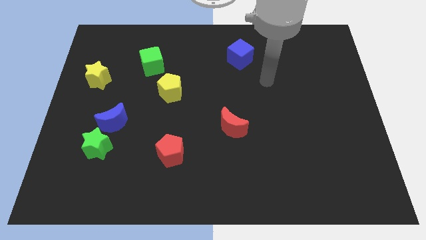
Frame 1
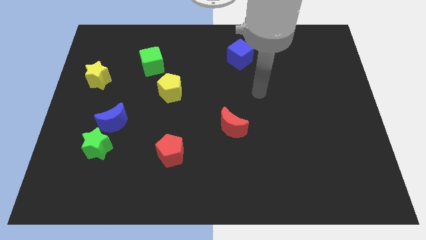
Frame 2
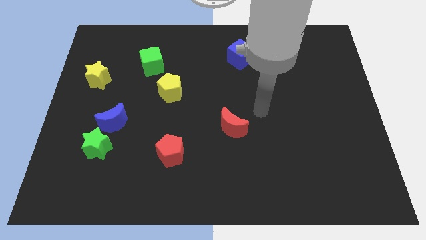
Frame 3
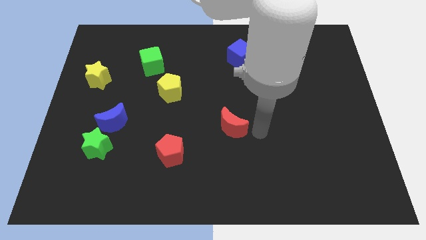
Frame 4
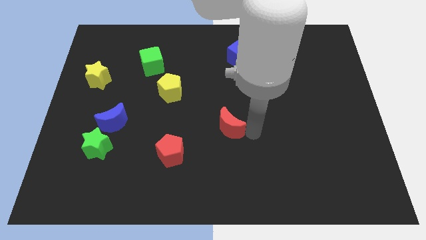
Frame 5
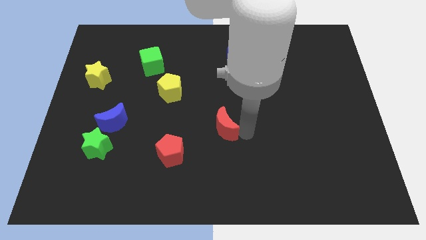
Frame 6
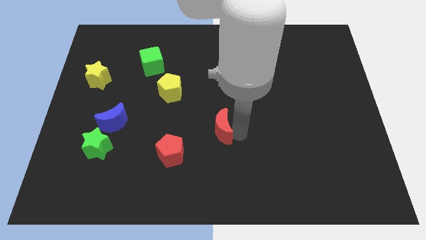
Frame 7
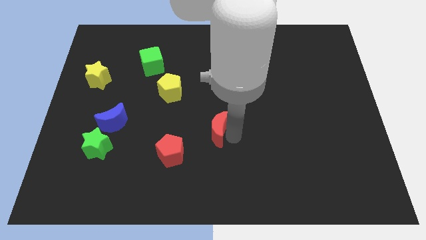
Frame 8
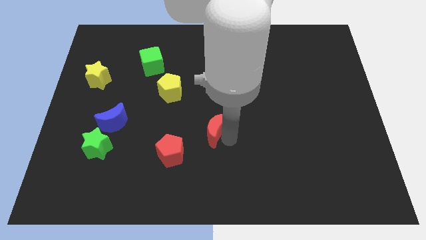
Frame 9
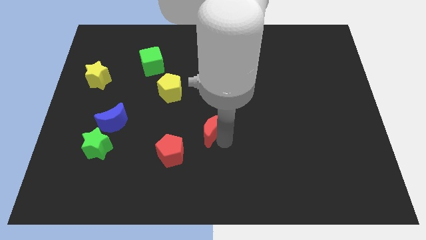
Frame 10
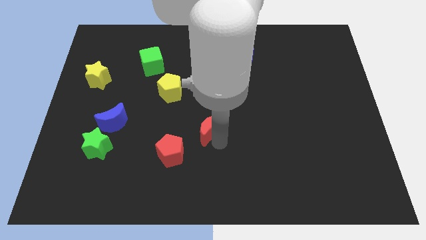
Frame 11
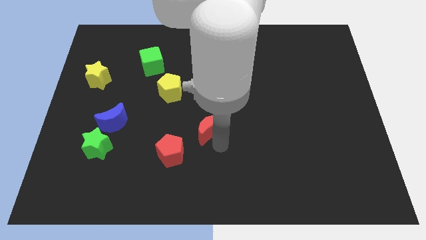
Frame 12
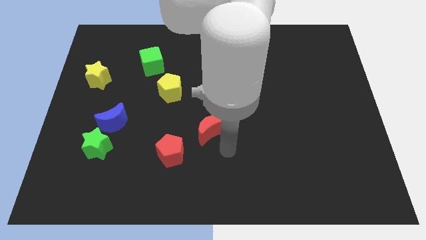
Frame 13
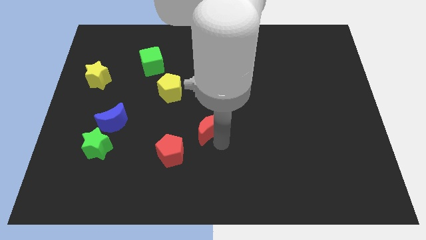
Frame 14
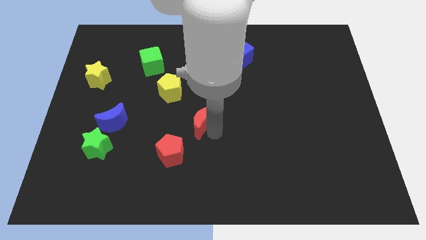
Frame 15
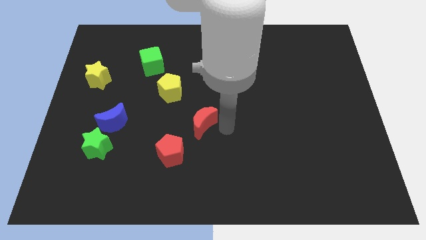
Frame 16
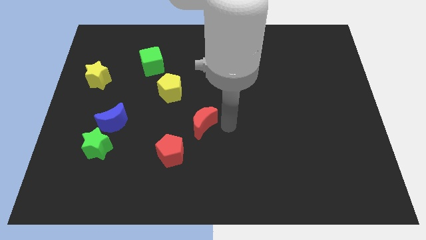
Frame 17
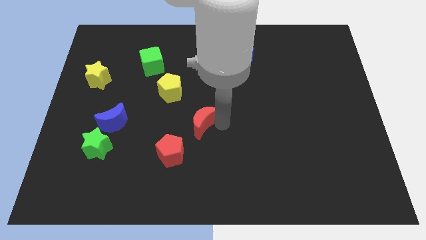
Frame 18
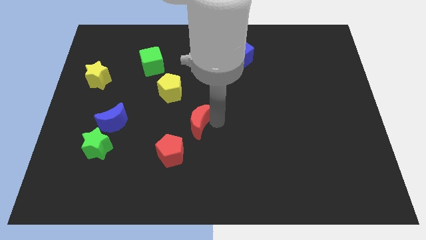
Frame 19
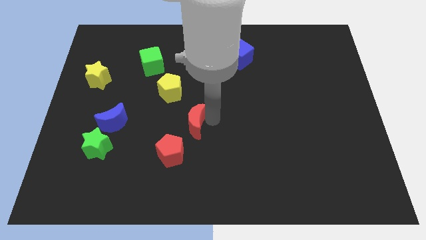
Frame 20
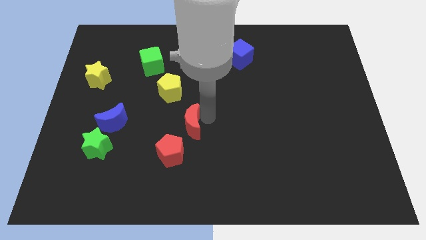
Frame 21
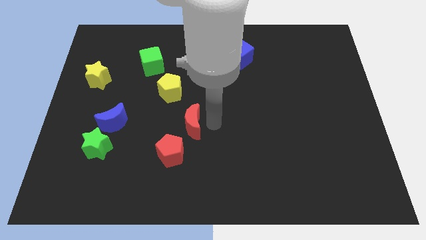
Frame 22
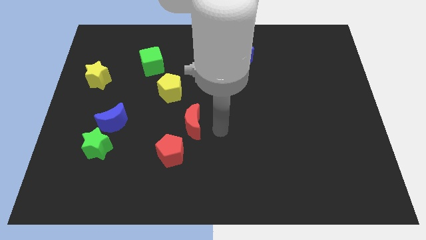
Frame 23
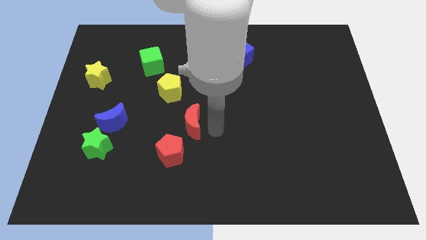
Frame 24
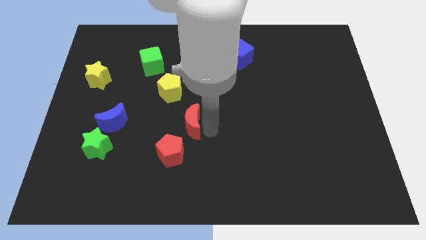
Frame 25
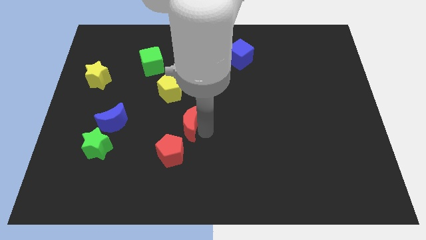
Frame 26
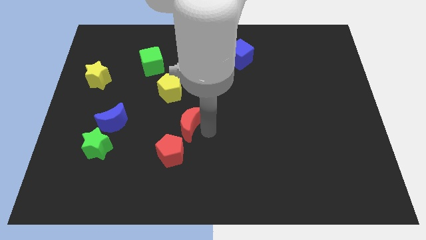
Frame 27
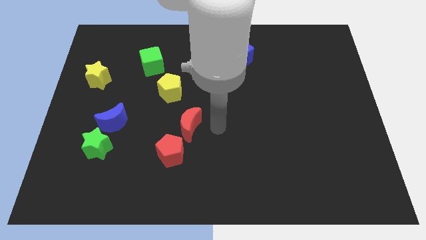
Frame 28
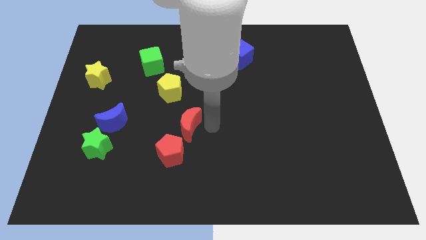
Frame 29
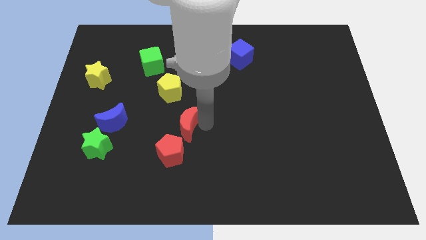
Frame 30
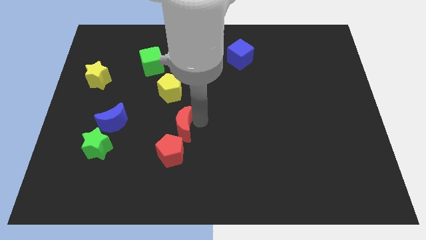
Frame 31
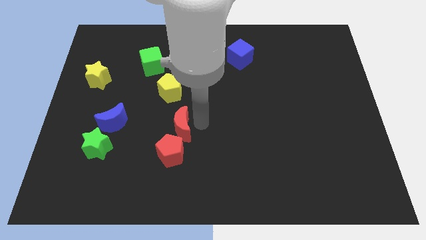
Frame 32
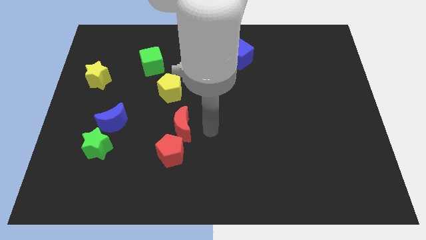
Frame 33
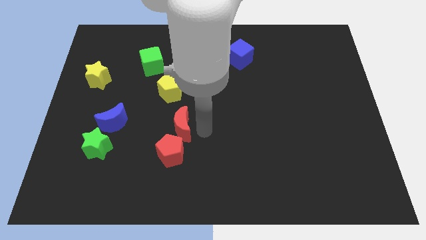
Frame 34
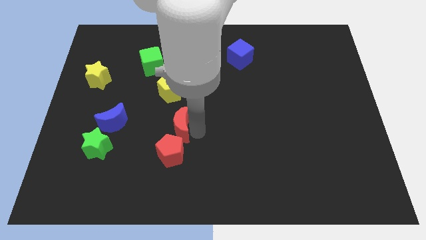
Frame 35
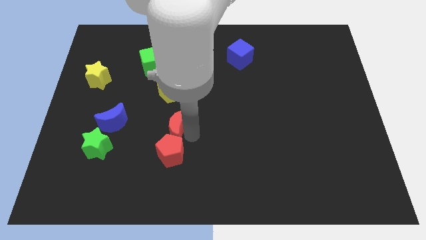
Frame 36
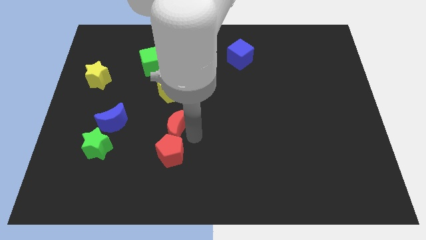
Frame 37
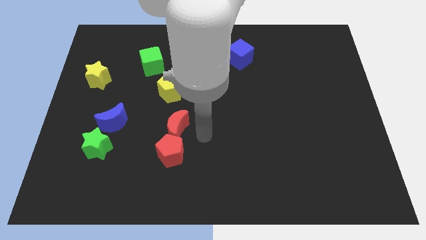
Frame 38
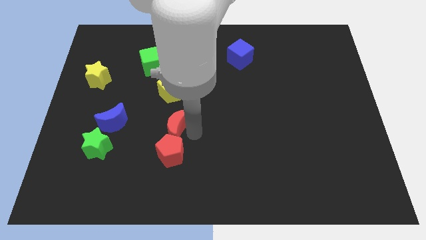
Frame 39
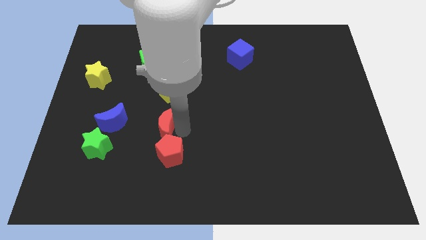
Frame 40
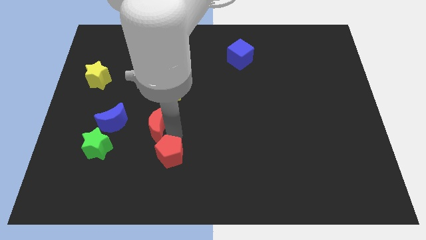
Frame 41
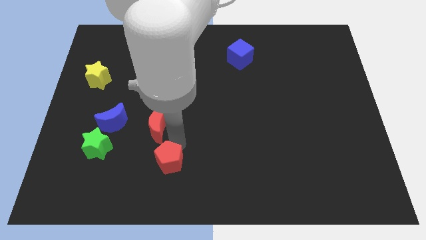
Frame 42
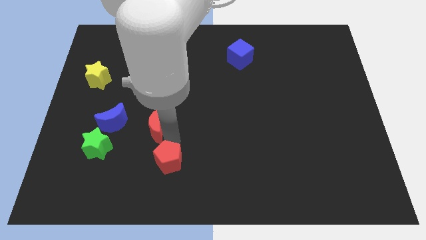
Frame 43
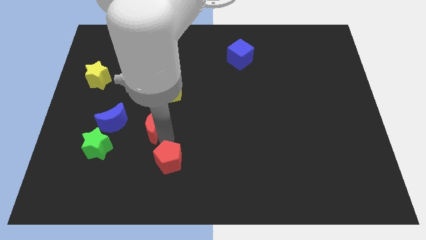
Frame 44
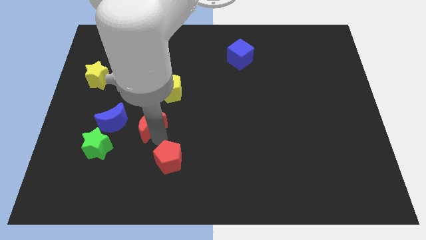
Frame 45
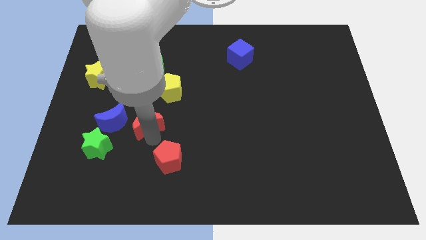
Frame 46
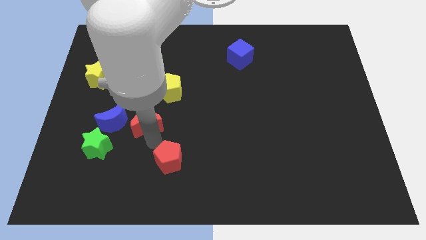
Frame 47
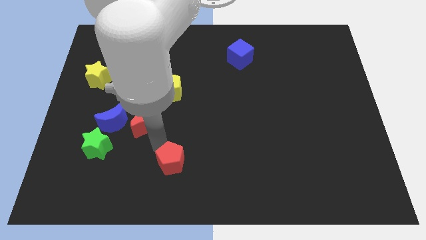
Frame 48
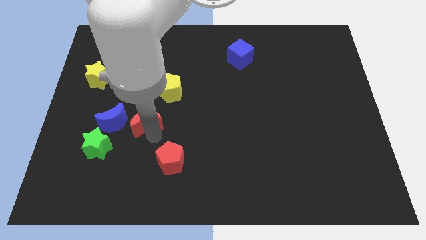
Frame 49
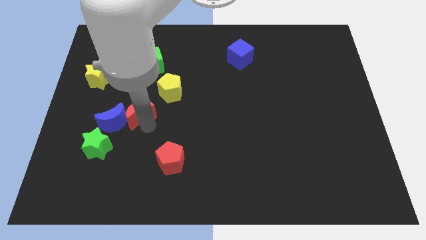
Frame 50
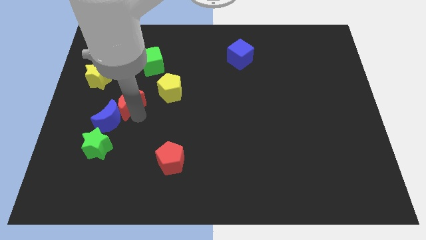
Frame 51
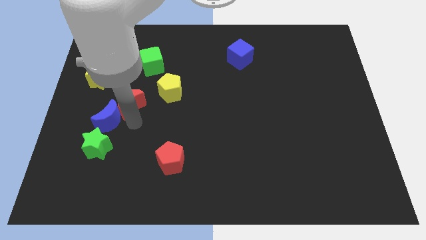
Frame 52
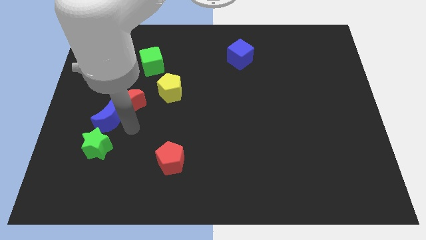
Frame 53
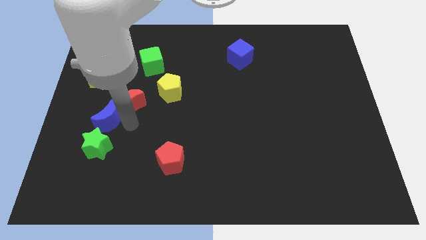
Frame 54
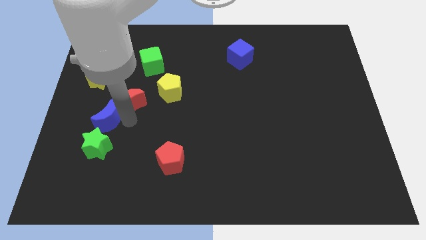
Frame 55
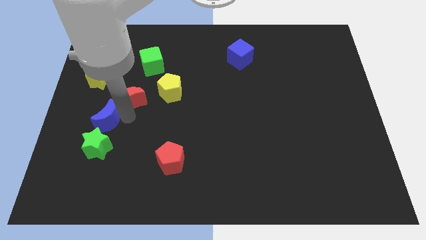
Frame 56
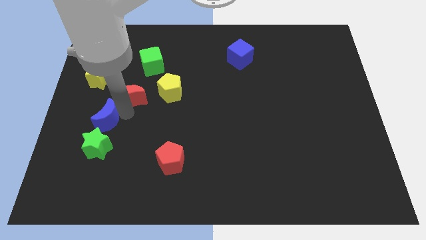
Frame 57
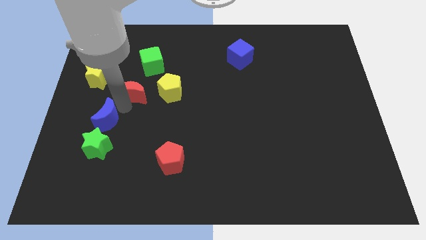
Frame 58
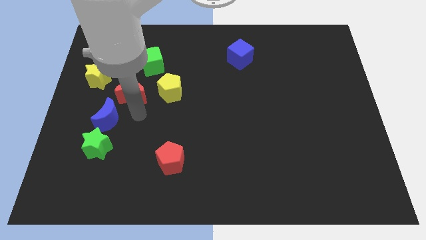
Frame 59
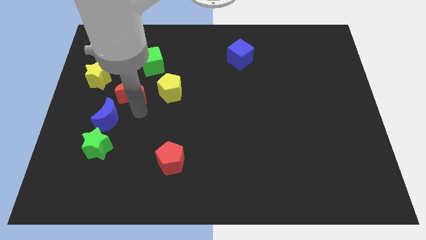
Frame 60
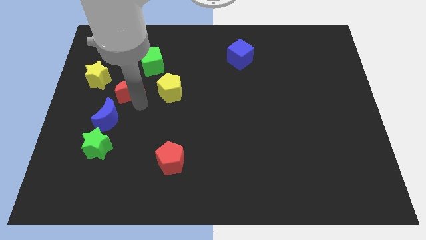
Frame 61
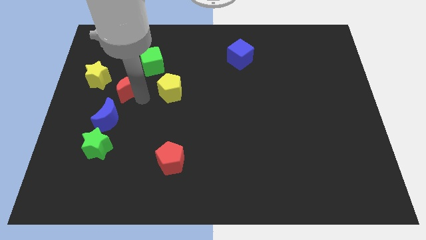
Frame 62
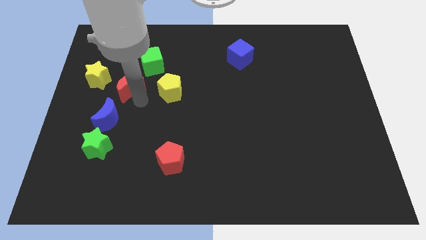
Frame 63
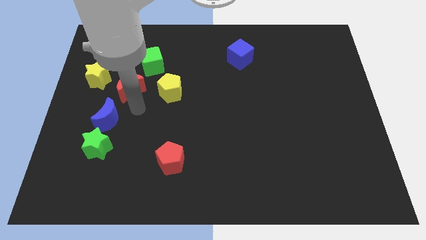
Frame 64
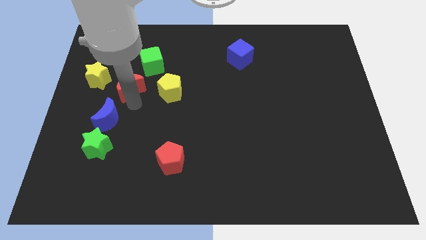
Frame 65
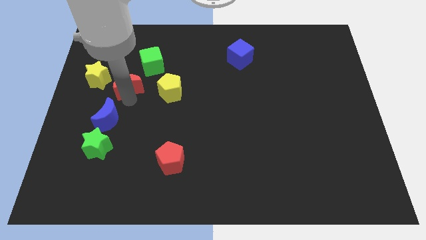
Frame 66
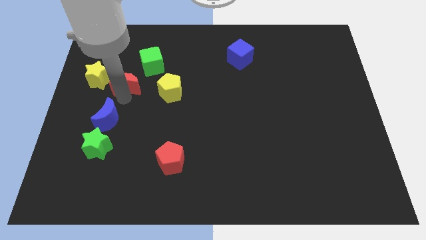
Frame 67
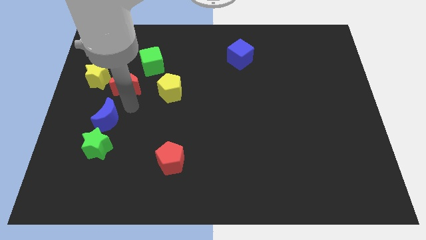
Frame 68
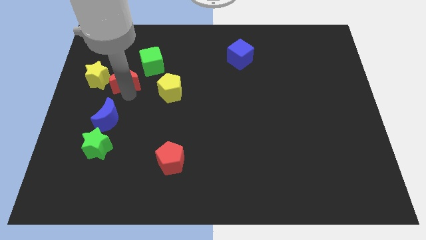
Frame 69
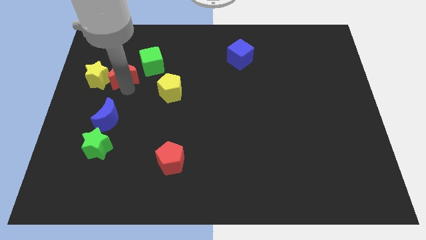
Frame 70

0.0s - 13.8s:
move the red moon to the top right side of the yellow star
